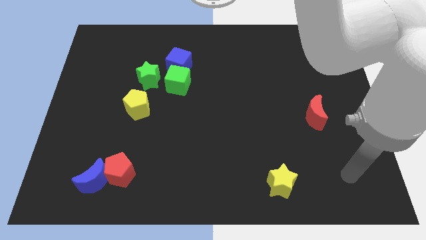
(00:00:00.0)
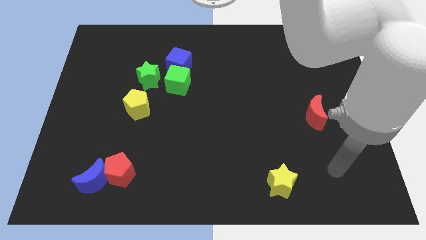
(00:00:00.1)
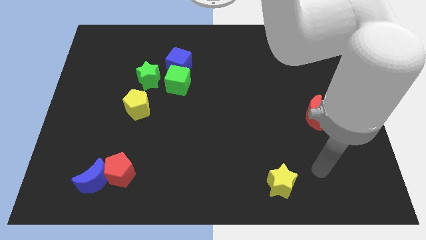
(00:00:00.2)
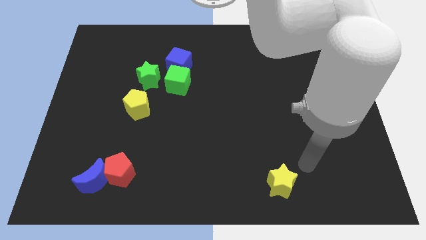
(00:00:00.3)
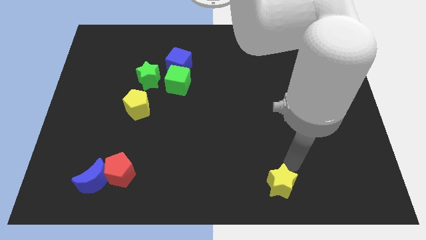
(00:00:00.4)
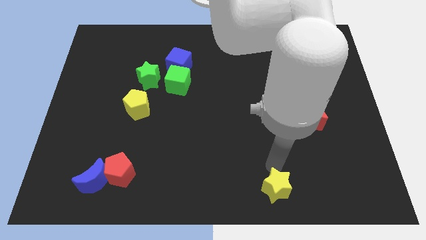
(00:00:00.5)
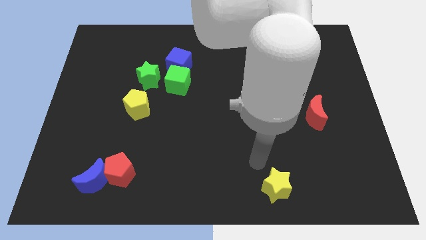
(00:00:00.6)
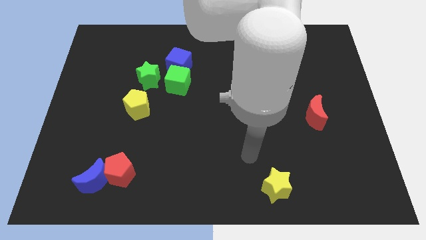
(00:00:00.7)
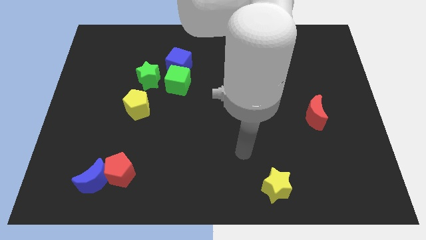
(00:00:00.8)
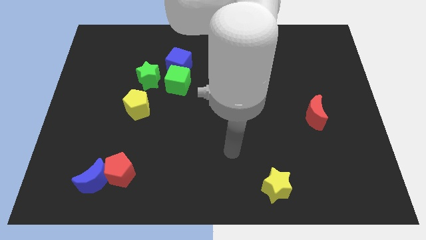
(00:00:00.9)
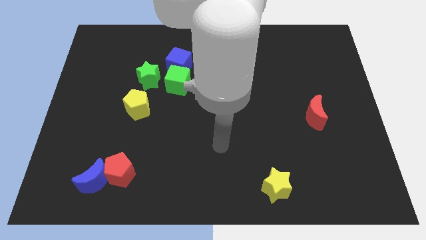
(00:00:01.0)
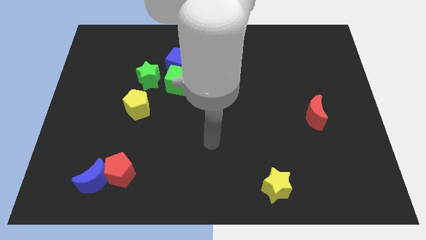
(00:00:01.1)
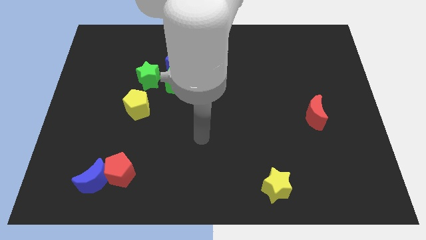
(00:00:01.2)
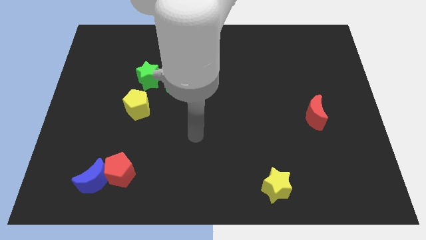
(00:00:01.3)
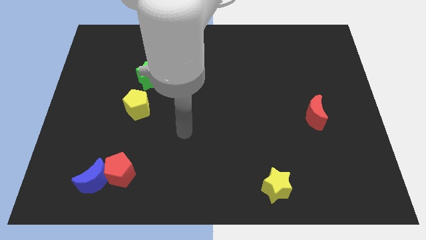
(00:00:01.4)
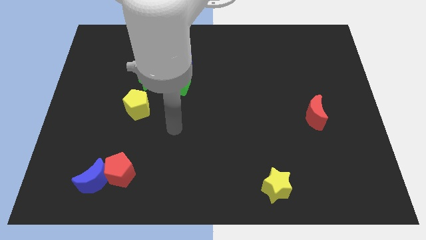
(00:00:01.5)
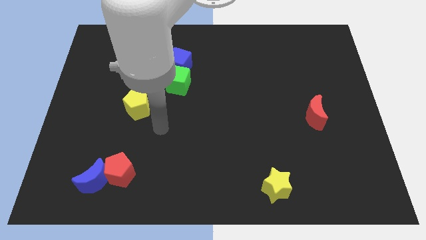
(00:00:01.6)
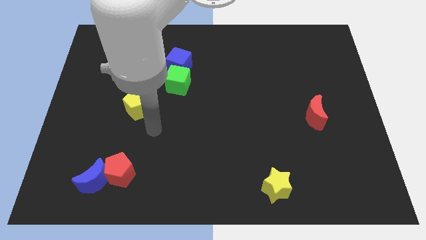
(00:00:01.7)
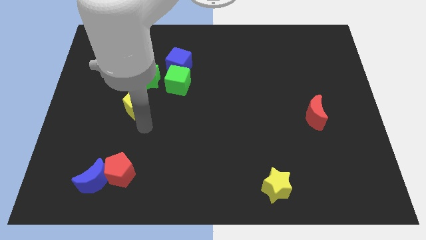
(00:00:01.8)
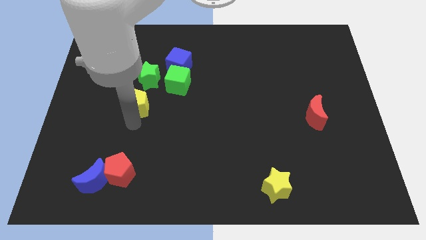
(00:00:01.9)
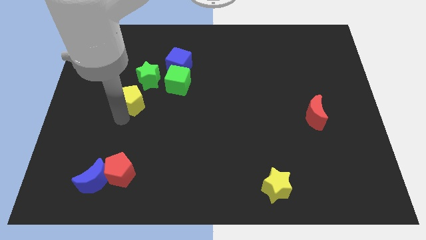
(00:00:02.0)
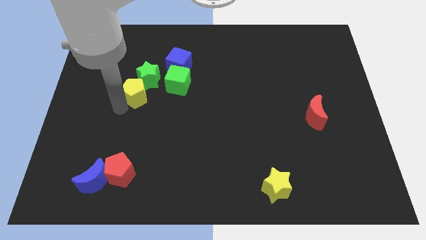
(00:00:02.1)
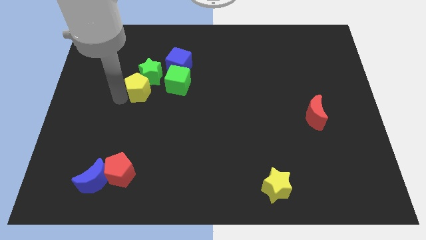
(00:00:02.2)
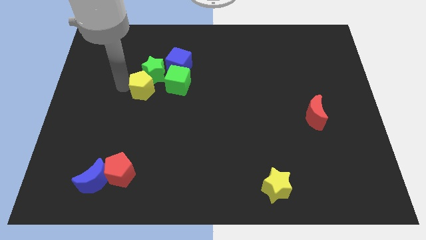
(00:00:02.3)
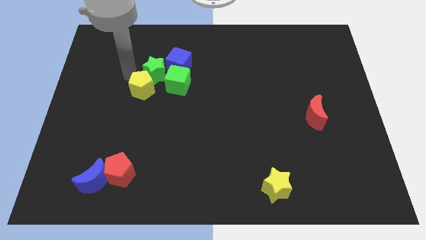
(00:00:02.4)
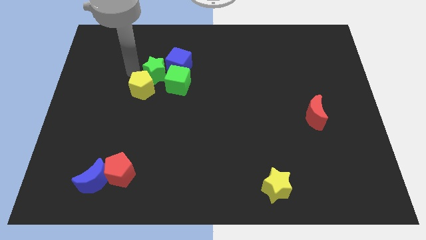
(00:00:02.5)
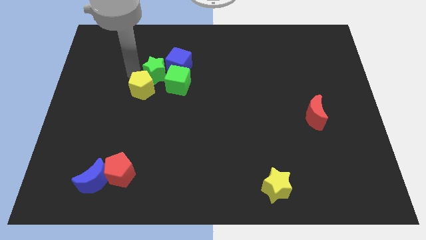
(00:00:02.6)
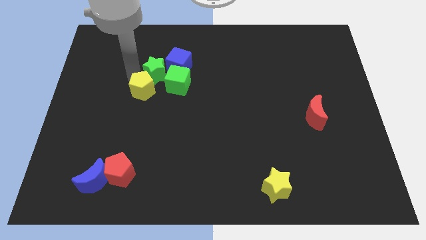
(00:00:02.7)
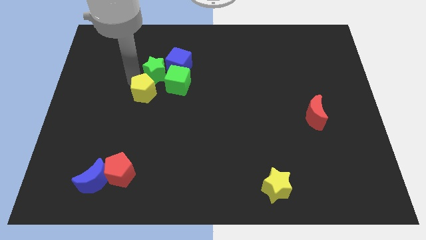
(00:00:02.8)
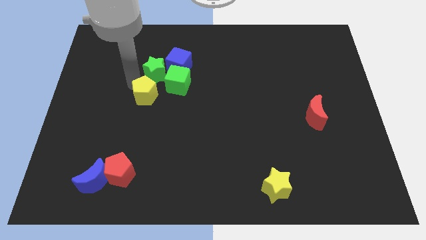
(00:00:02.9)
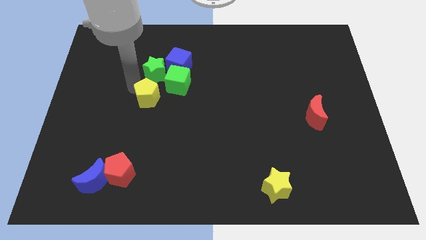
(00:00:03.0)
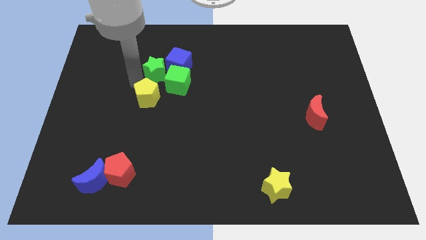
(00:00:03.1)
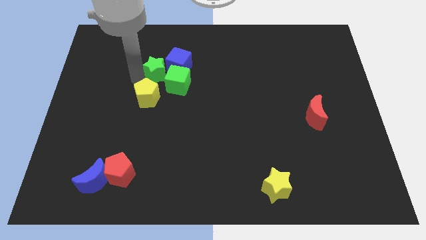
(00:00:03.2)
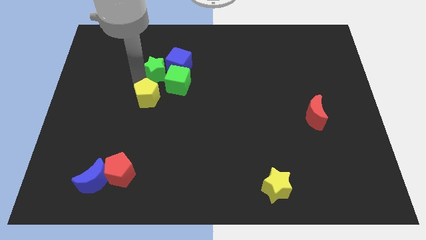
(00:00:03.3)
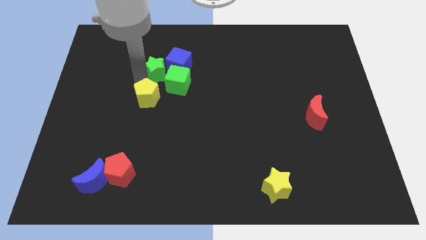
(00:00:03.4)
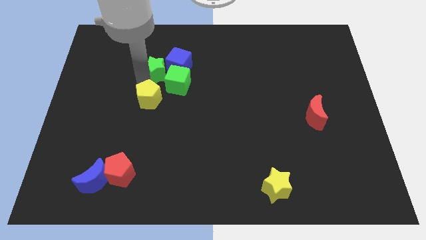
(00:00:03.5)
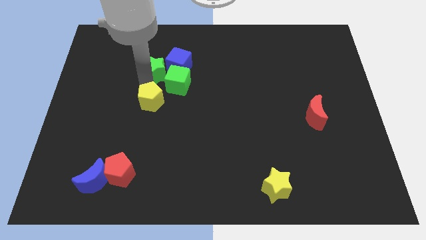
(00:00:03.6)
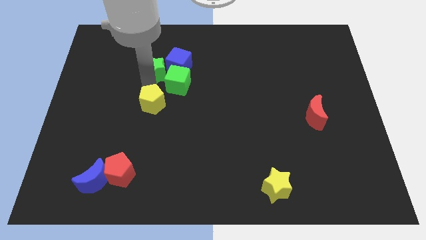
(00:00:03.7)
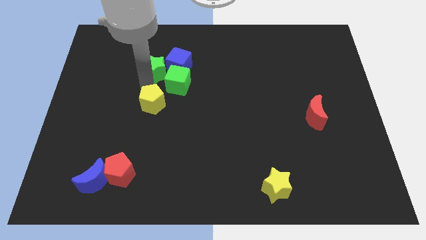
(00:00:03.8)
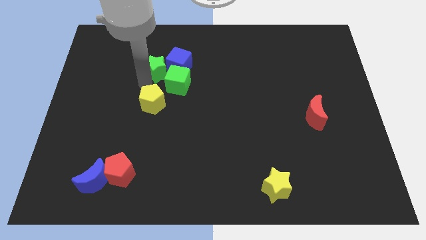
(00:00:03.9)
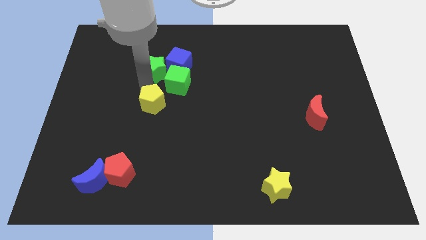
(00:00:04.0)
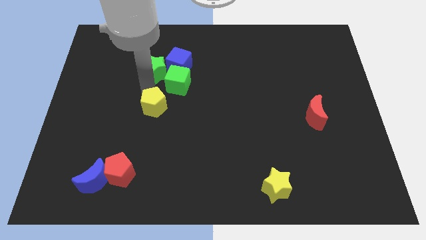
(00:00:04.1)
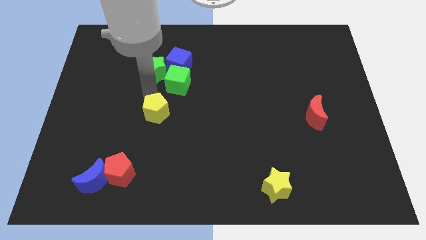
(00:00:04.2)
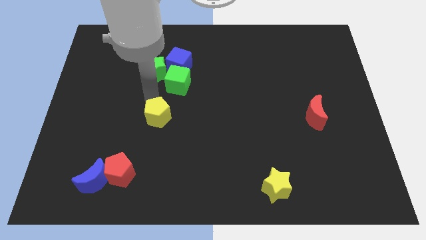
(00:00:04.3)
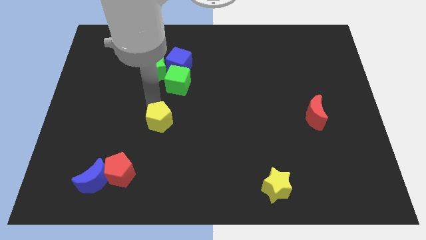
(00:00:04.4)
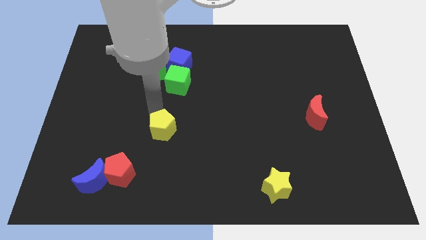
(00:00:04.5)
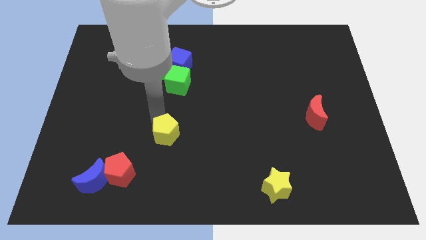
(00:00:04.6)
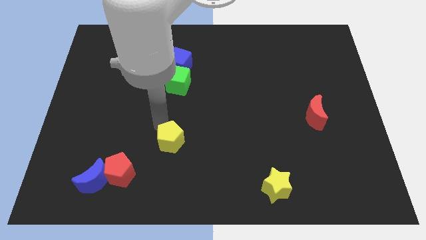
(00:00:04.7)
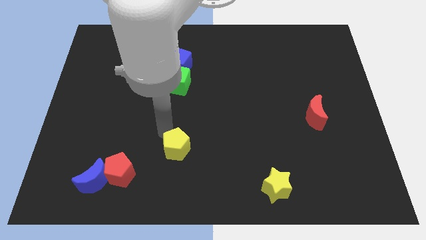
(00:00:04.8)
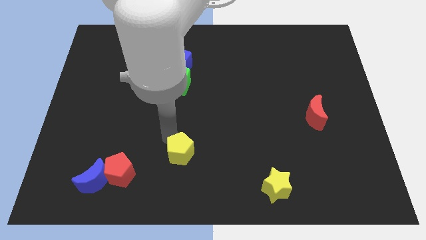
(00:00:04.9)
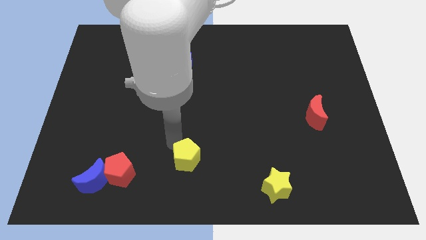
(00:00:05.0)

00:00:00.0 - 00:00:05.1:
slide the yellow pentagon to the bottom side

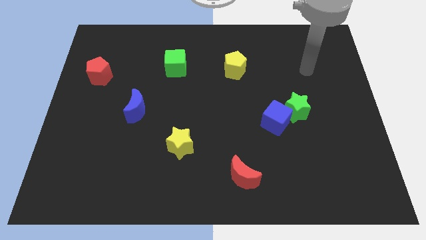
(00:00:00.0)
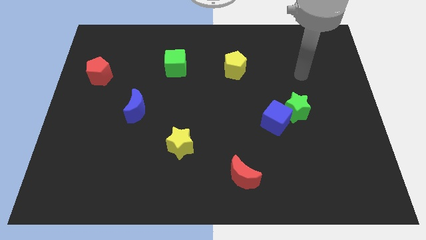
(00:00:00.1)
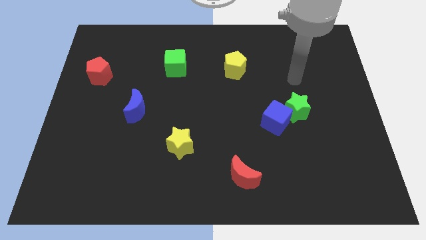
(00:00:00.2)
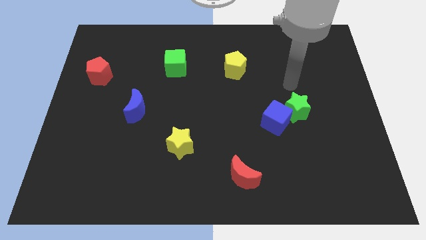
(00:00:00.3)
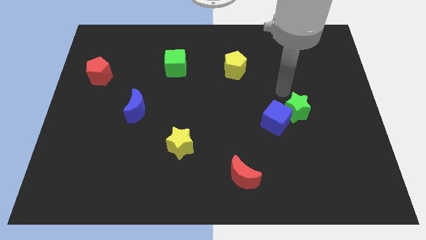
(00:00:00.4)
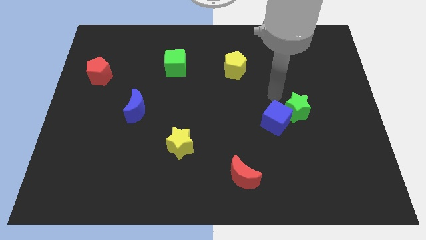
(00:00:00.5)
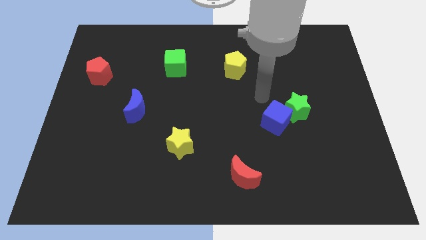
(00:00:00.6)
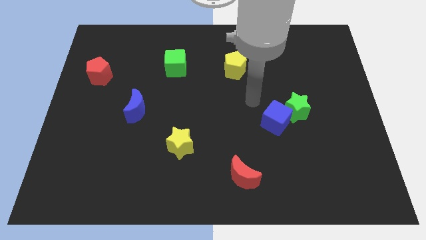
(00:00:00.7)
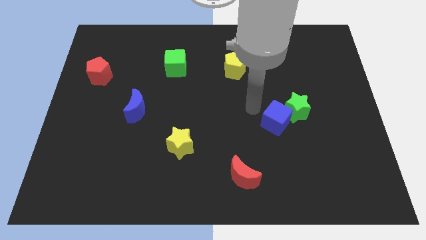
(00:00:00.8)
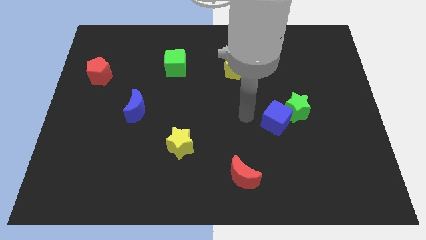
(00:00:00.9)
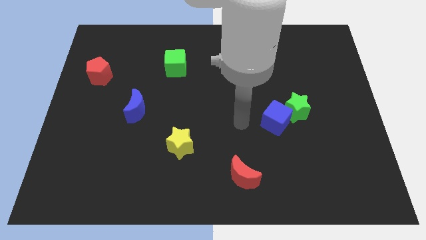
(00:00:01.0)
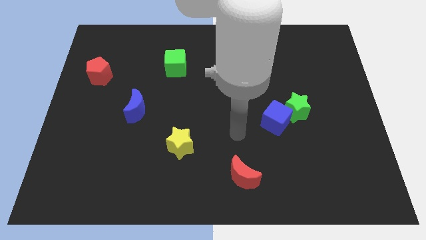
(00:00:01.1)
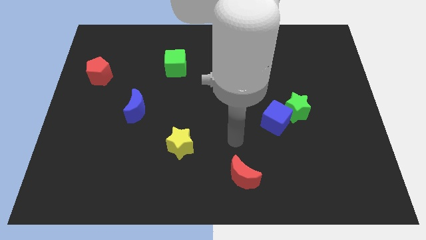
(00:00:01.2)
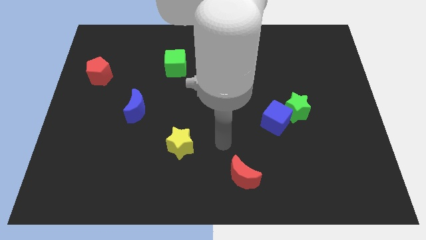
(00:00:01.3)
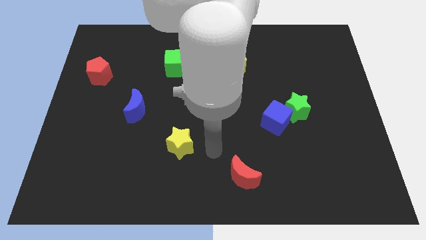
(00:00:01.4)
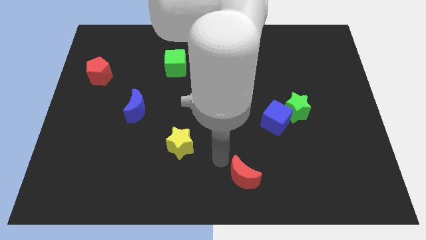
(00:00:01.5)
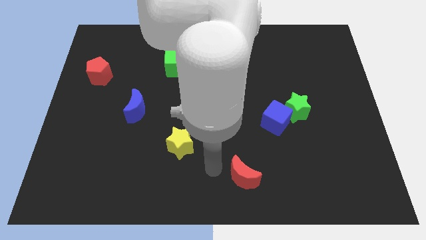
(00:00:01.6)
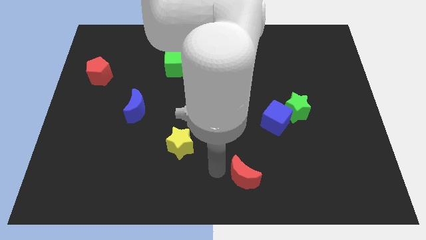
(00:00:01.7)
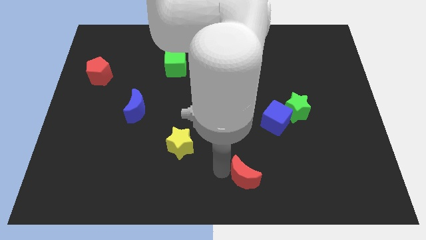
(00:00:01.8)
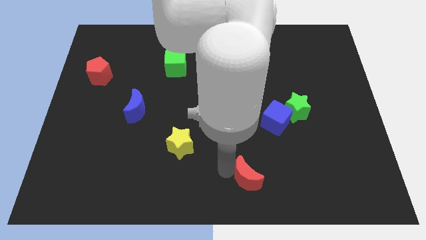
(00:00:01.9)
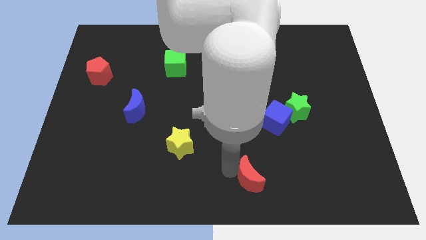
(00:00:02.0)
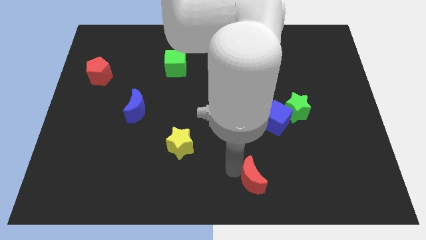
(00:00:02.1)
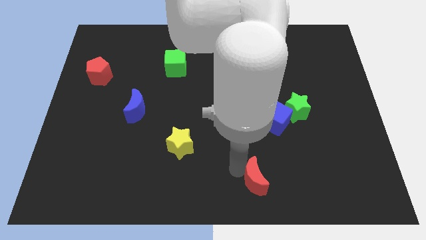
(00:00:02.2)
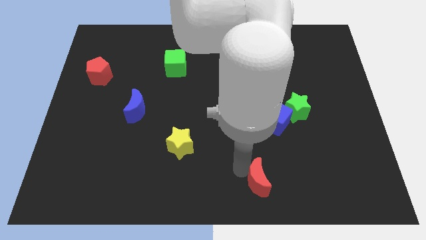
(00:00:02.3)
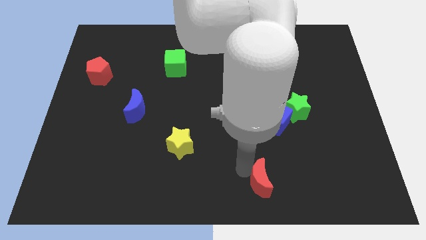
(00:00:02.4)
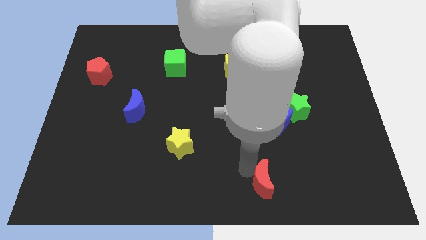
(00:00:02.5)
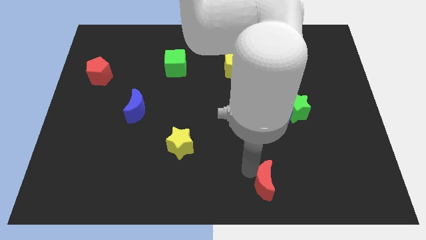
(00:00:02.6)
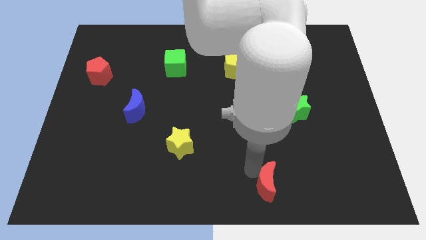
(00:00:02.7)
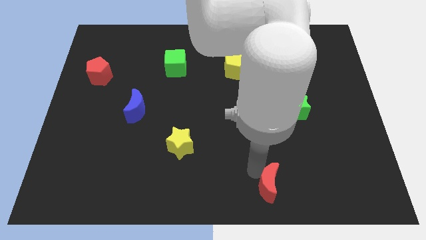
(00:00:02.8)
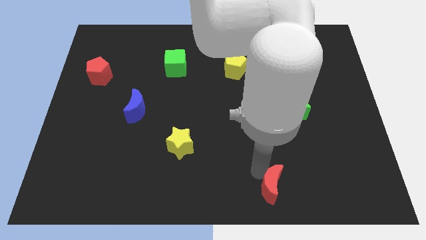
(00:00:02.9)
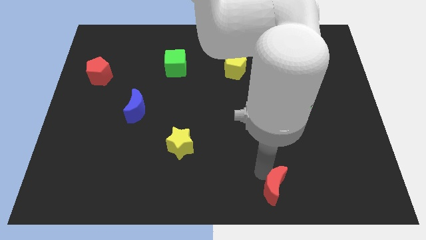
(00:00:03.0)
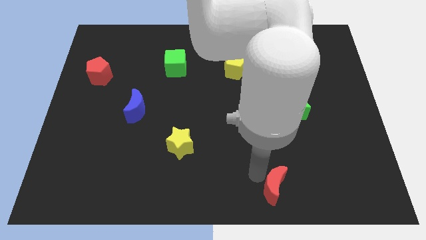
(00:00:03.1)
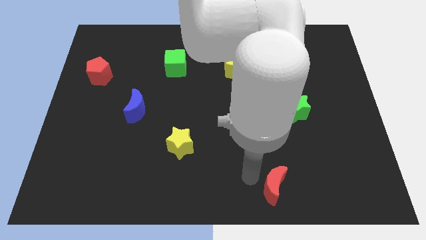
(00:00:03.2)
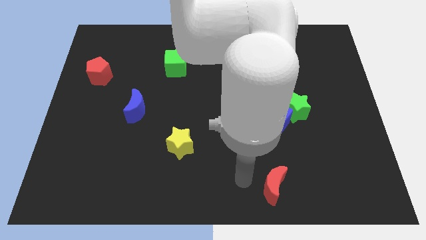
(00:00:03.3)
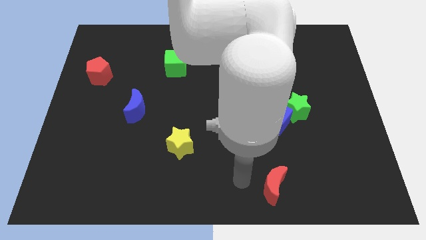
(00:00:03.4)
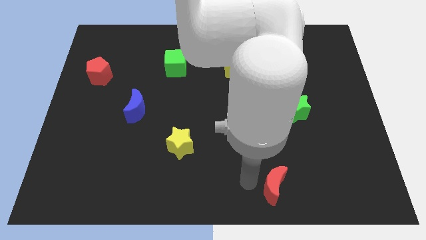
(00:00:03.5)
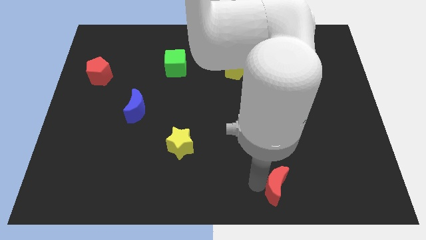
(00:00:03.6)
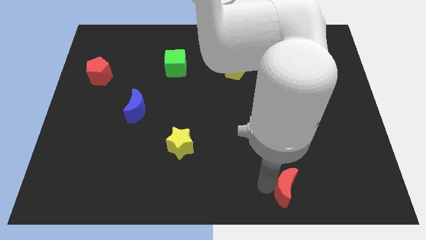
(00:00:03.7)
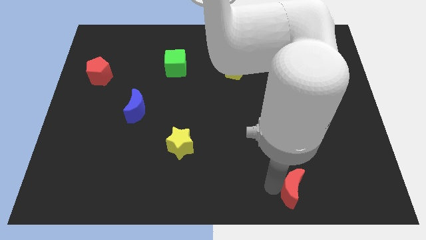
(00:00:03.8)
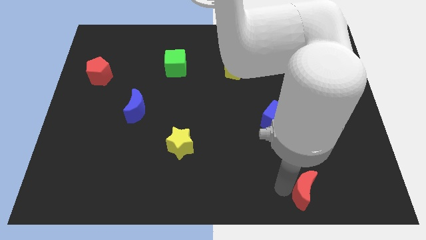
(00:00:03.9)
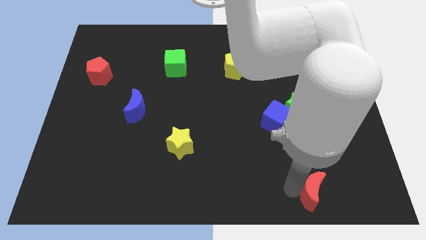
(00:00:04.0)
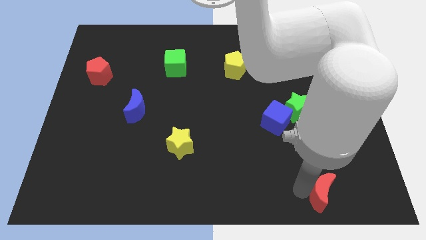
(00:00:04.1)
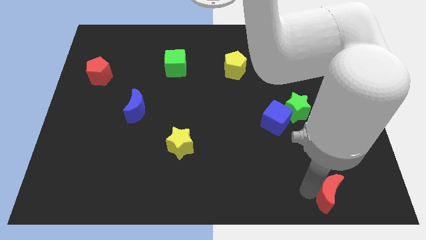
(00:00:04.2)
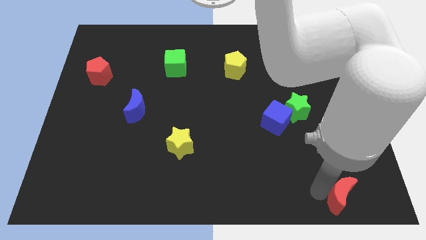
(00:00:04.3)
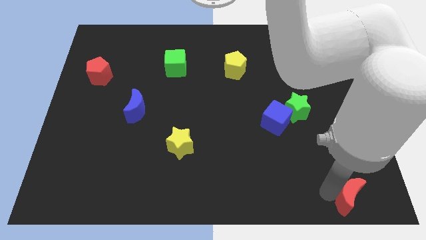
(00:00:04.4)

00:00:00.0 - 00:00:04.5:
push the red moon to the bottom right
